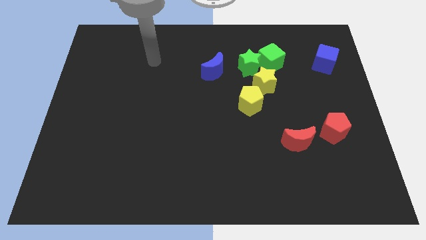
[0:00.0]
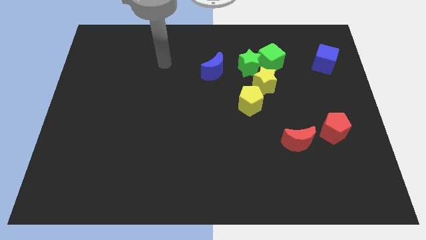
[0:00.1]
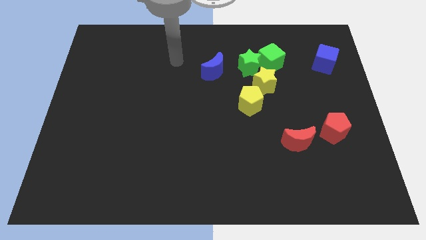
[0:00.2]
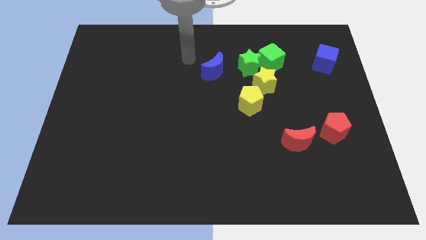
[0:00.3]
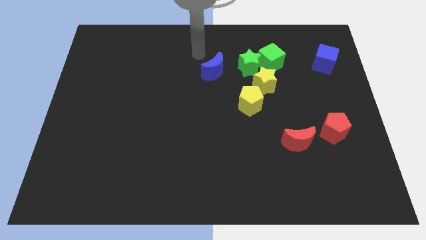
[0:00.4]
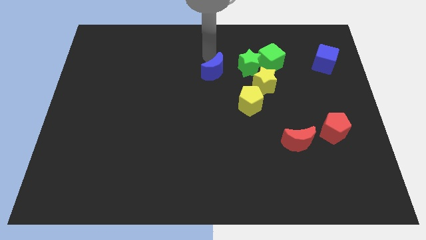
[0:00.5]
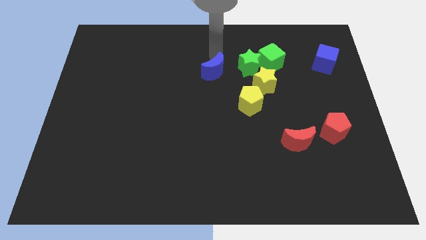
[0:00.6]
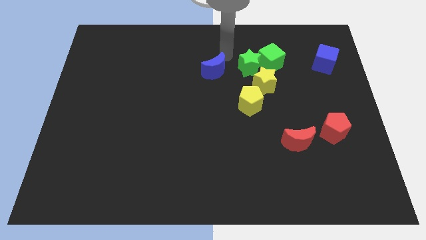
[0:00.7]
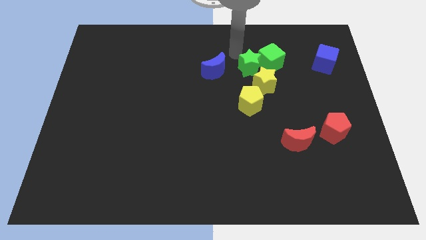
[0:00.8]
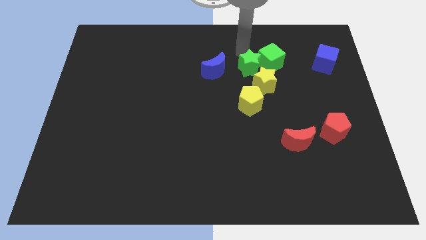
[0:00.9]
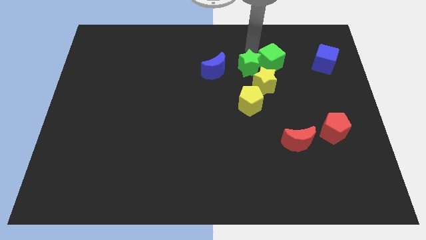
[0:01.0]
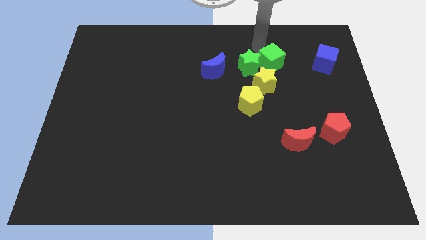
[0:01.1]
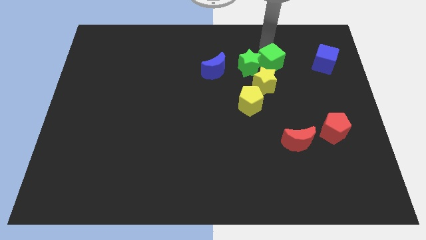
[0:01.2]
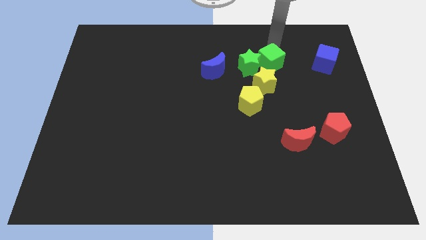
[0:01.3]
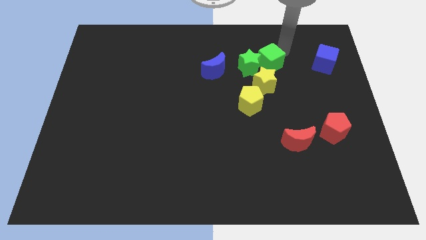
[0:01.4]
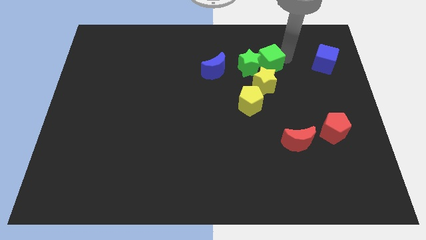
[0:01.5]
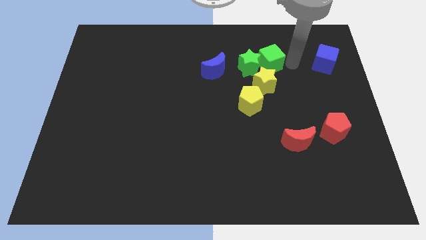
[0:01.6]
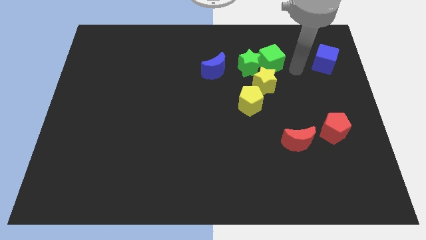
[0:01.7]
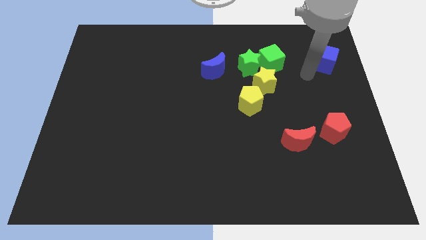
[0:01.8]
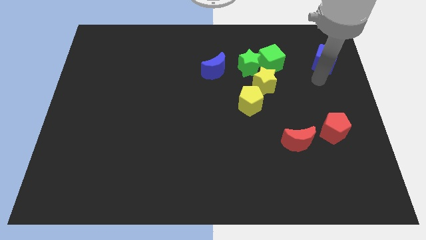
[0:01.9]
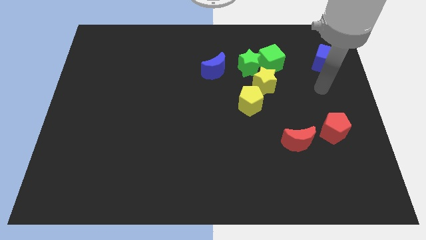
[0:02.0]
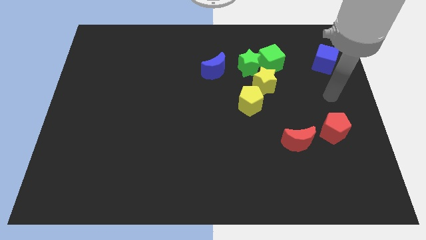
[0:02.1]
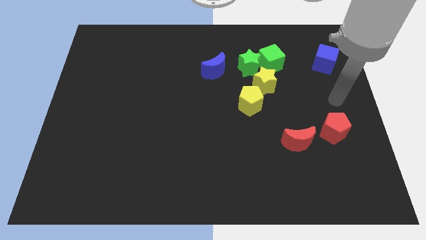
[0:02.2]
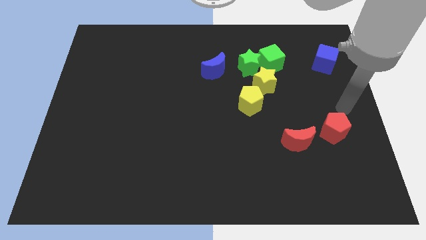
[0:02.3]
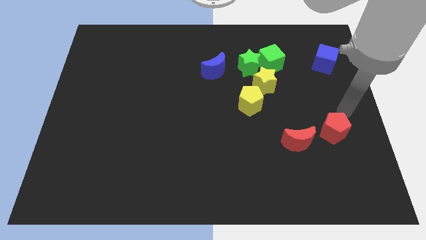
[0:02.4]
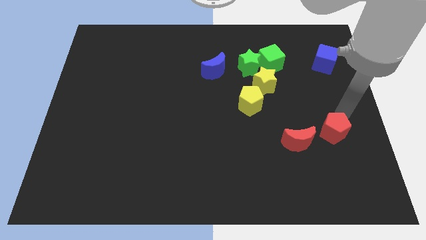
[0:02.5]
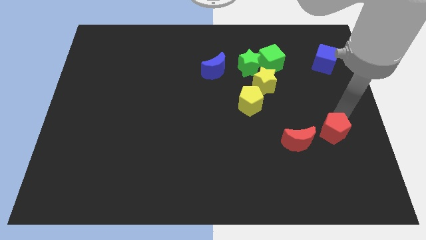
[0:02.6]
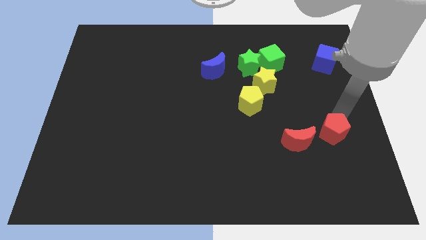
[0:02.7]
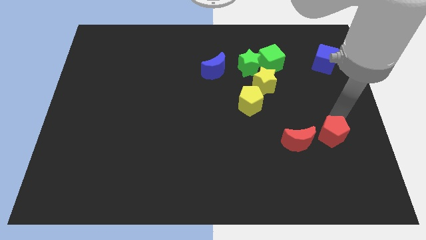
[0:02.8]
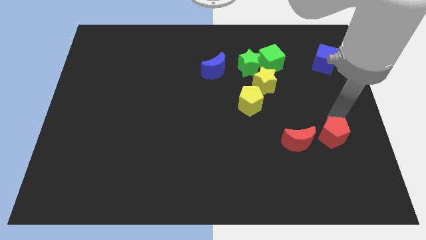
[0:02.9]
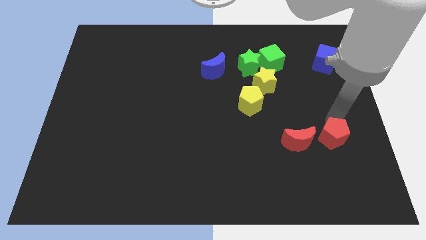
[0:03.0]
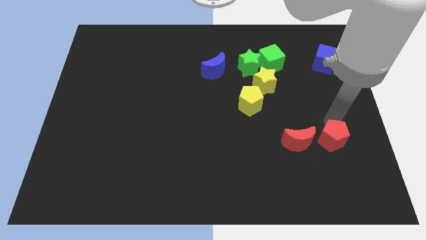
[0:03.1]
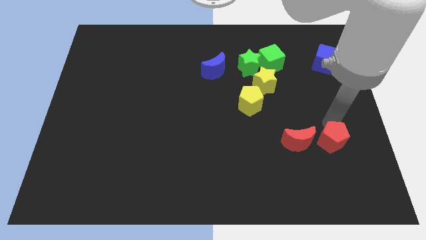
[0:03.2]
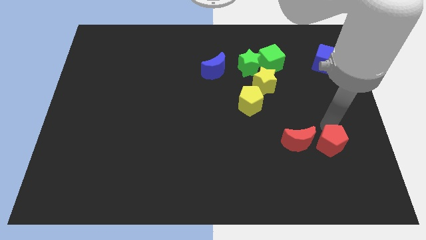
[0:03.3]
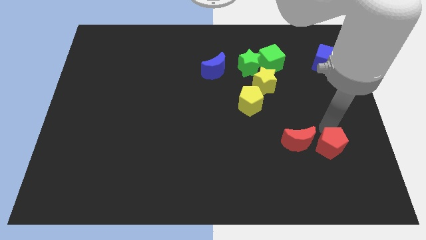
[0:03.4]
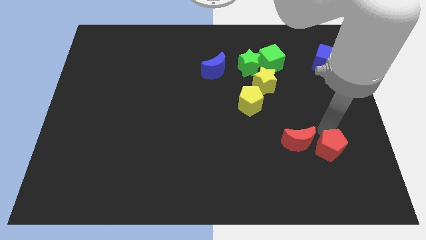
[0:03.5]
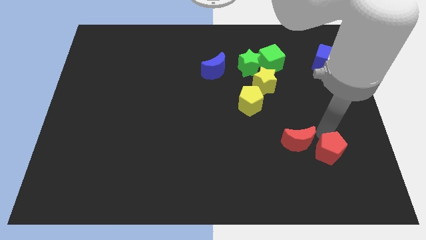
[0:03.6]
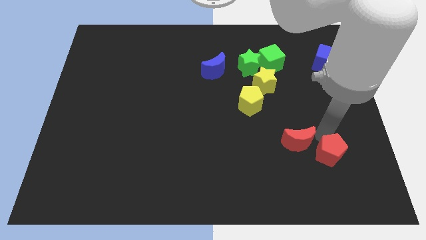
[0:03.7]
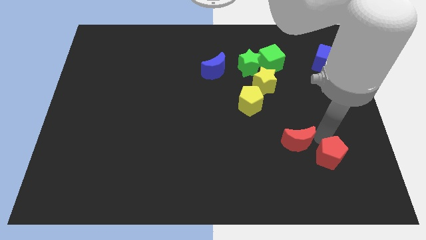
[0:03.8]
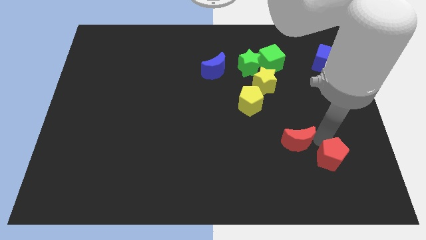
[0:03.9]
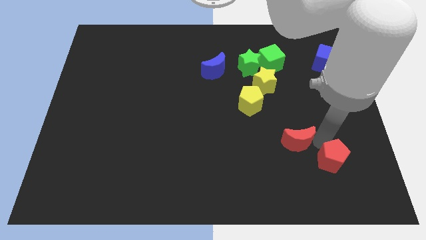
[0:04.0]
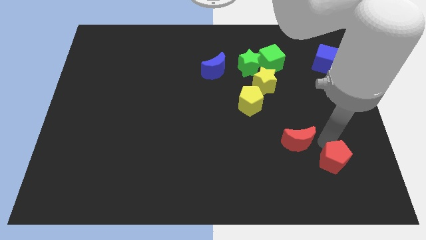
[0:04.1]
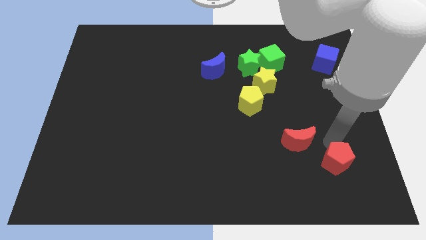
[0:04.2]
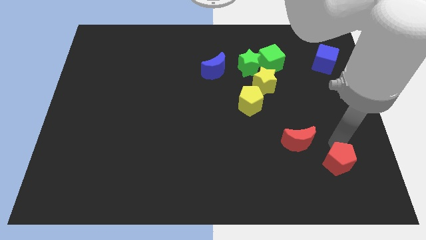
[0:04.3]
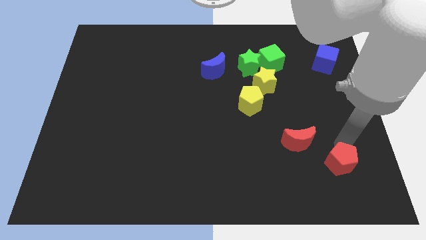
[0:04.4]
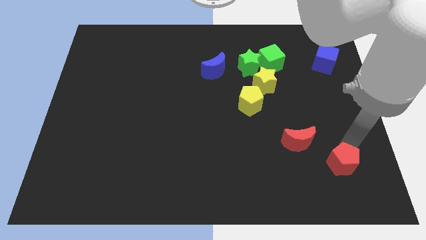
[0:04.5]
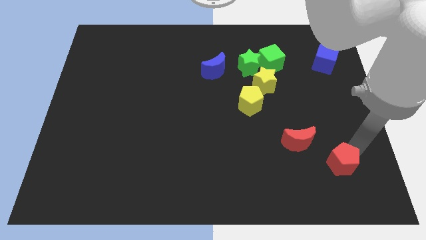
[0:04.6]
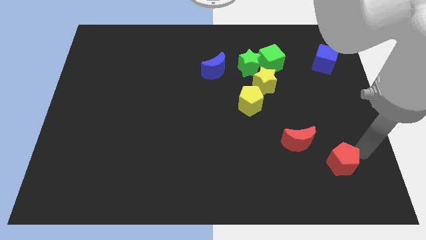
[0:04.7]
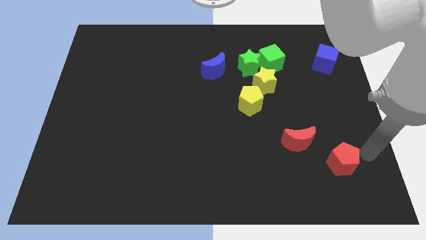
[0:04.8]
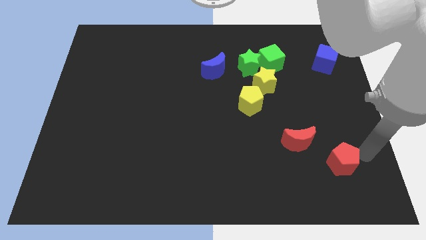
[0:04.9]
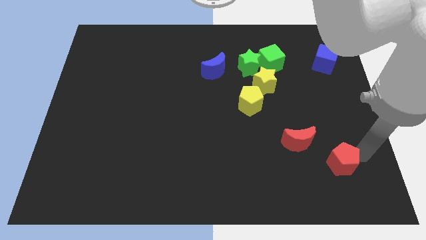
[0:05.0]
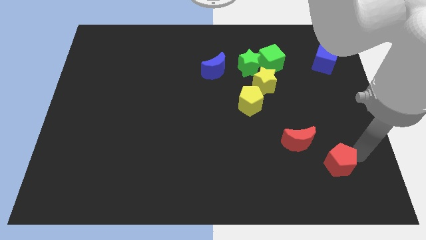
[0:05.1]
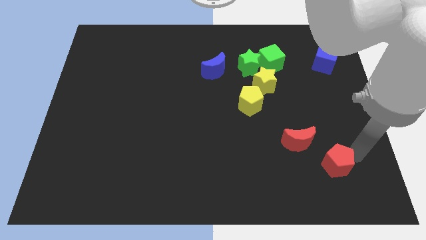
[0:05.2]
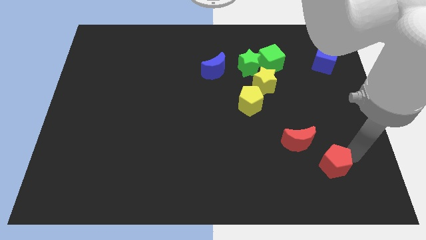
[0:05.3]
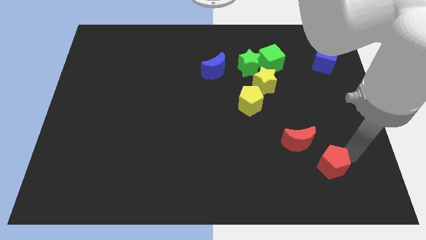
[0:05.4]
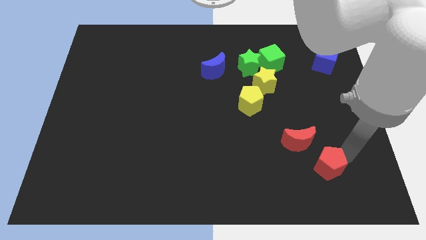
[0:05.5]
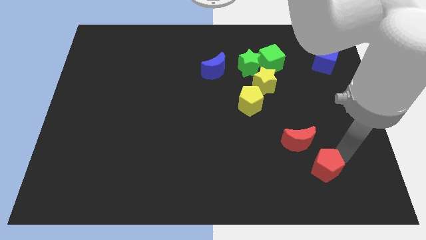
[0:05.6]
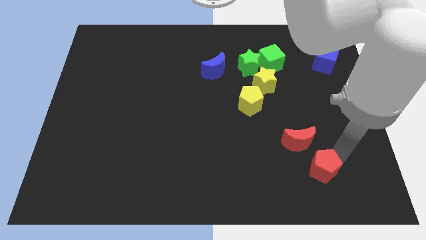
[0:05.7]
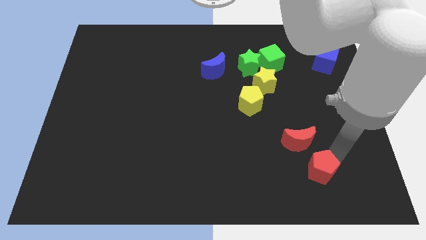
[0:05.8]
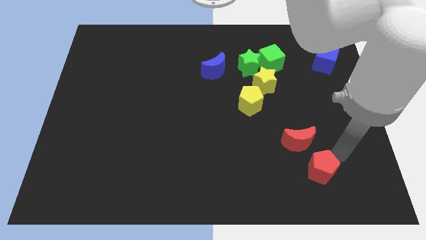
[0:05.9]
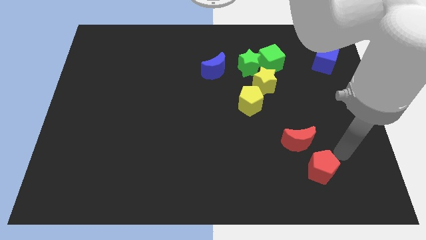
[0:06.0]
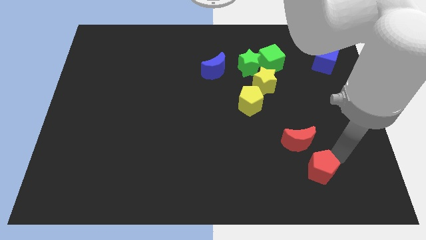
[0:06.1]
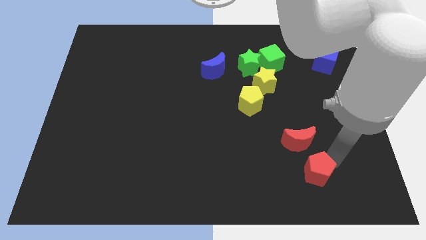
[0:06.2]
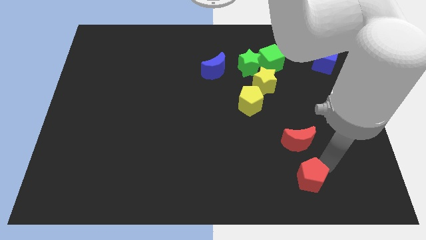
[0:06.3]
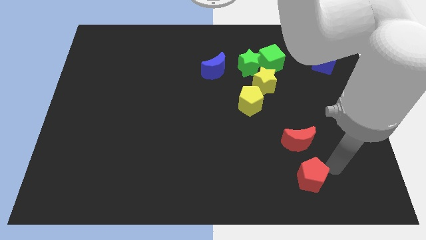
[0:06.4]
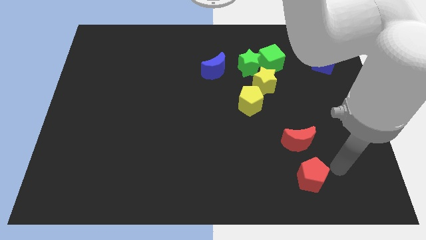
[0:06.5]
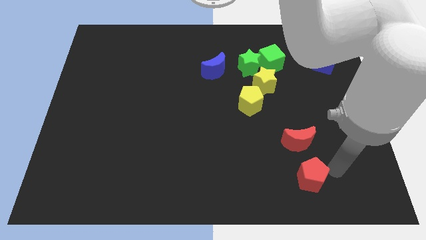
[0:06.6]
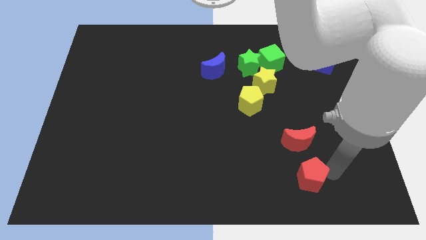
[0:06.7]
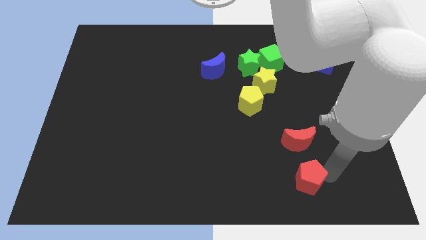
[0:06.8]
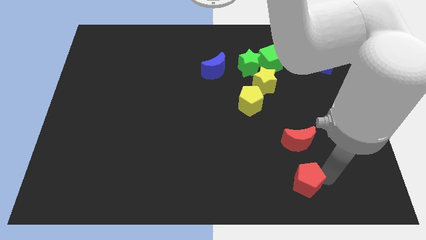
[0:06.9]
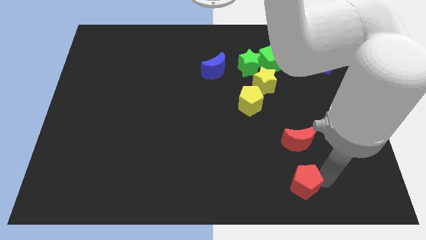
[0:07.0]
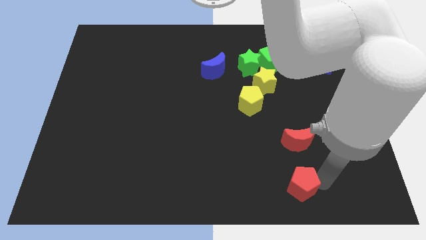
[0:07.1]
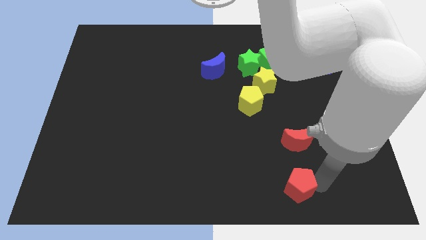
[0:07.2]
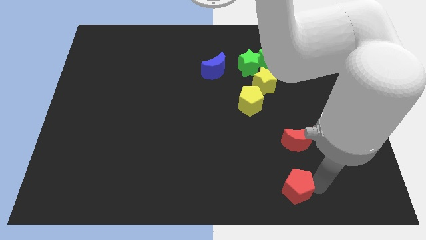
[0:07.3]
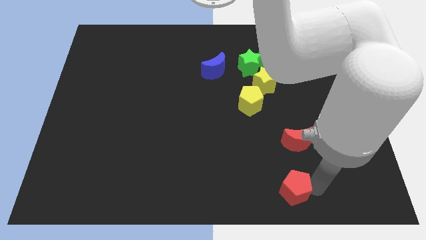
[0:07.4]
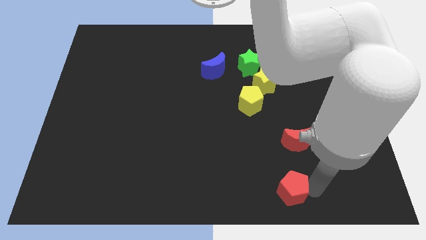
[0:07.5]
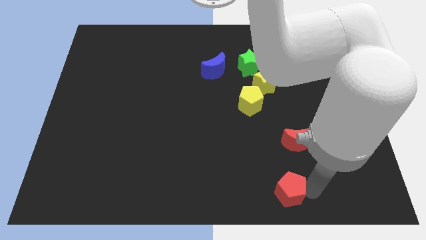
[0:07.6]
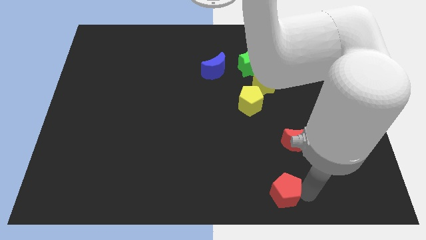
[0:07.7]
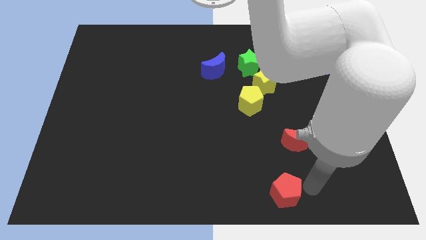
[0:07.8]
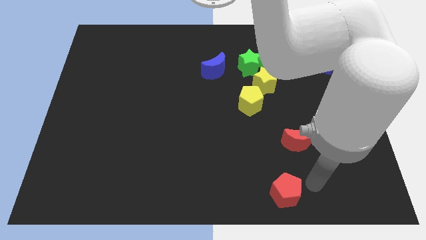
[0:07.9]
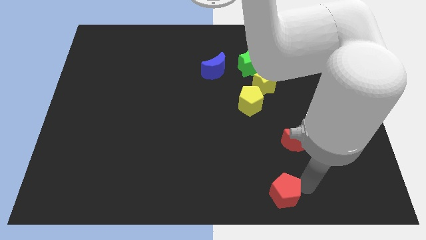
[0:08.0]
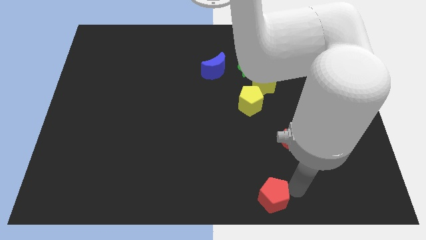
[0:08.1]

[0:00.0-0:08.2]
slide the red pentagon to the bottom side
